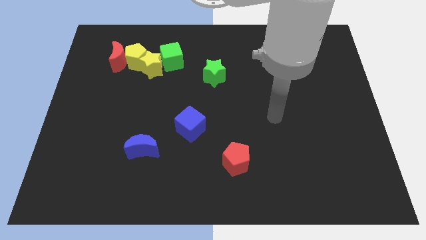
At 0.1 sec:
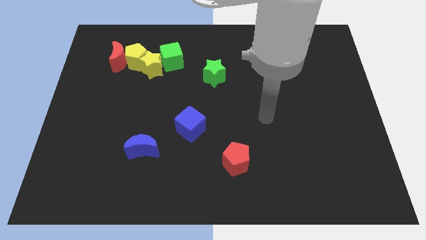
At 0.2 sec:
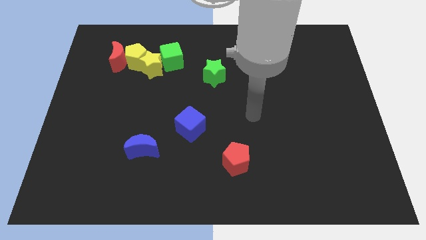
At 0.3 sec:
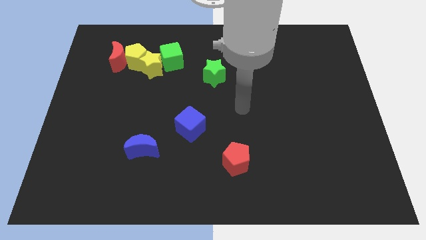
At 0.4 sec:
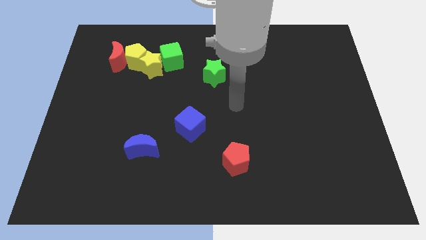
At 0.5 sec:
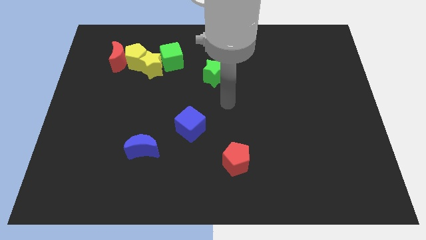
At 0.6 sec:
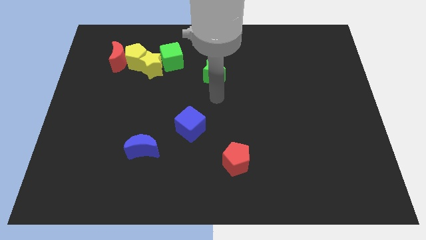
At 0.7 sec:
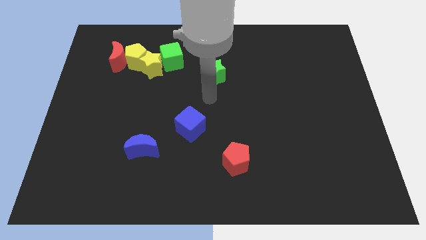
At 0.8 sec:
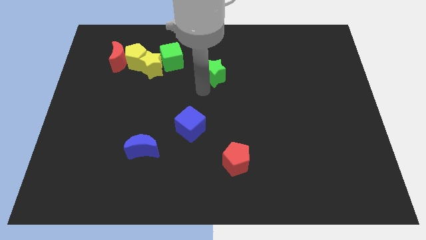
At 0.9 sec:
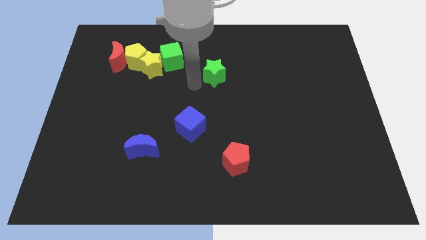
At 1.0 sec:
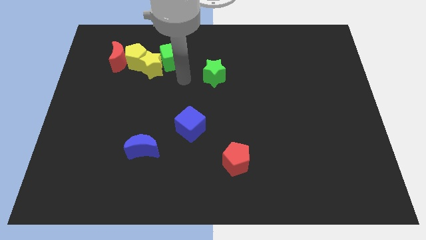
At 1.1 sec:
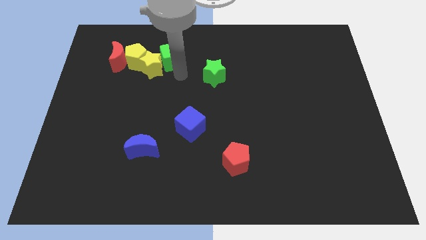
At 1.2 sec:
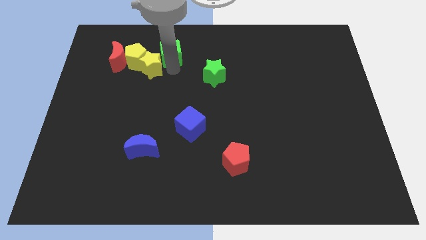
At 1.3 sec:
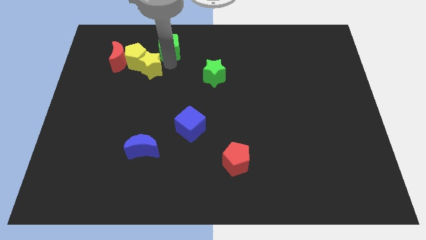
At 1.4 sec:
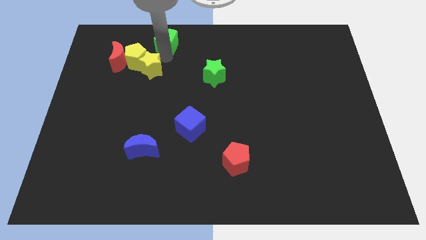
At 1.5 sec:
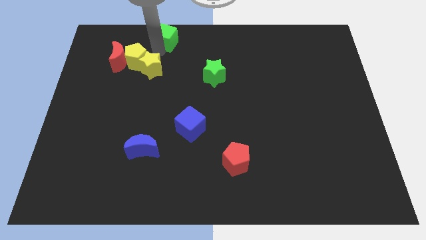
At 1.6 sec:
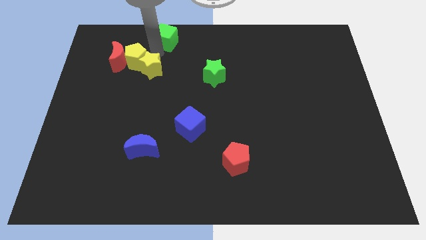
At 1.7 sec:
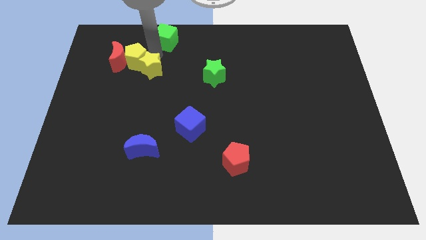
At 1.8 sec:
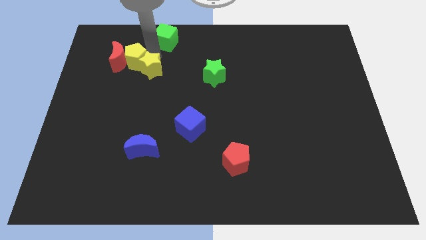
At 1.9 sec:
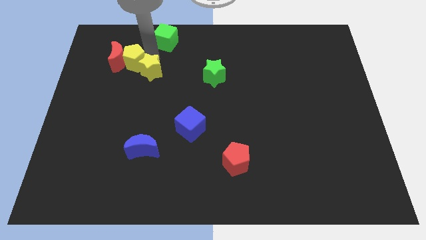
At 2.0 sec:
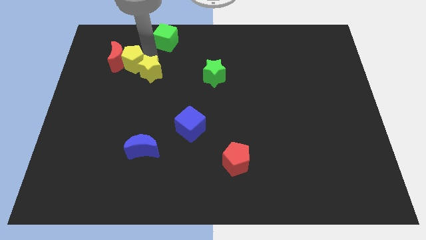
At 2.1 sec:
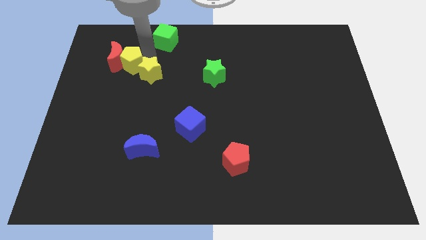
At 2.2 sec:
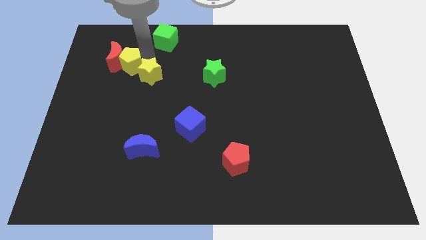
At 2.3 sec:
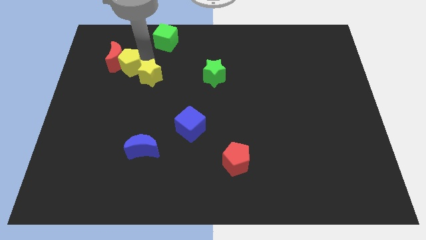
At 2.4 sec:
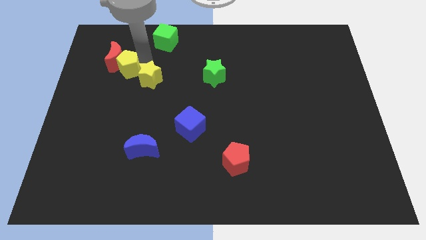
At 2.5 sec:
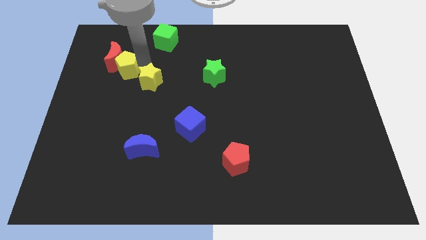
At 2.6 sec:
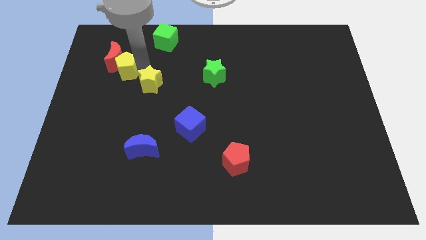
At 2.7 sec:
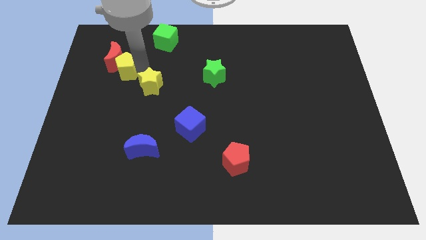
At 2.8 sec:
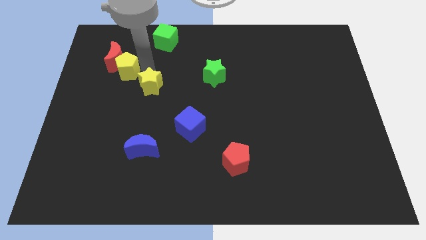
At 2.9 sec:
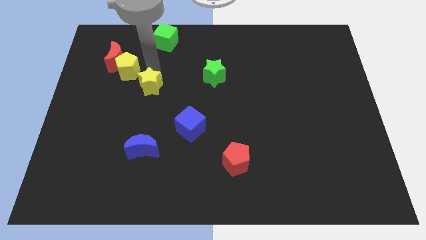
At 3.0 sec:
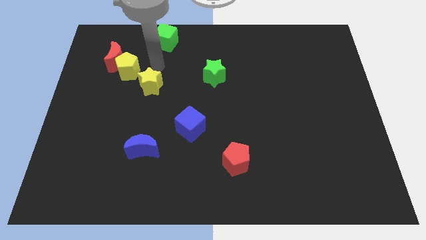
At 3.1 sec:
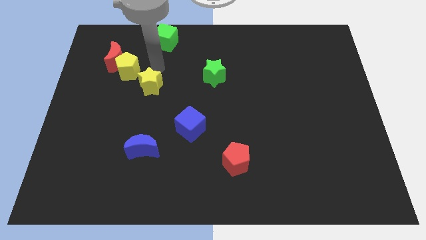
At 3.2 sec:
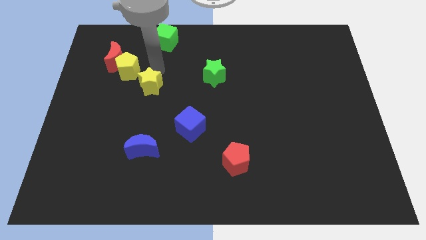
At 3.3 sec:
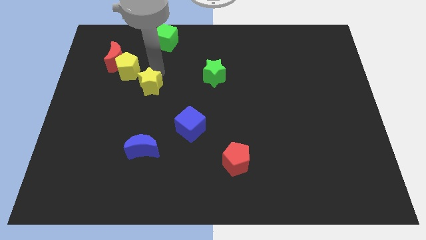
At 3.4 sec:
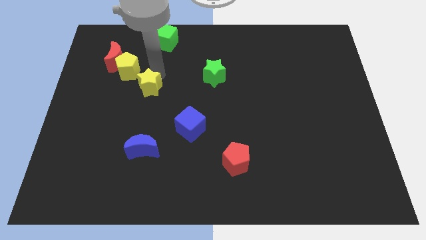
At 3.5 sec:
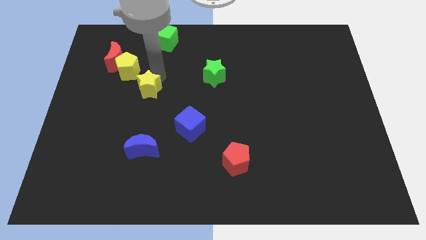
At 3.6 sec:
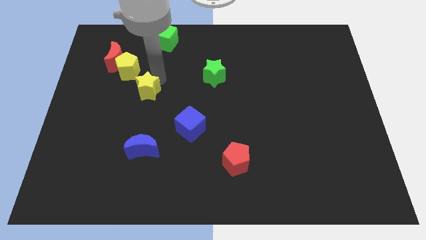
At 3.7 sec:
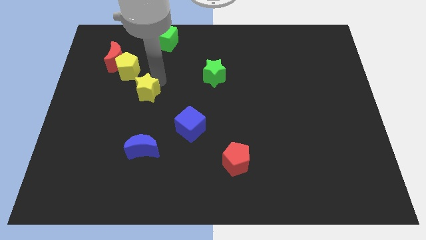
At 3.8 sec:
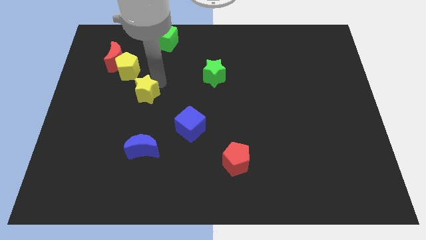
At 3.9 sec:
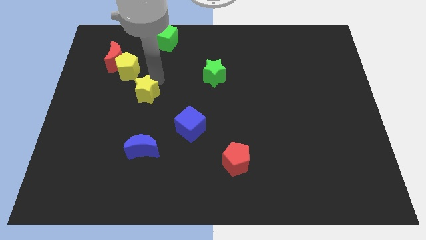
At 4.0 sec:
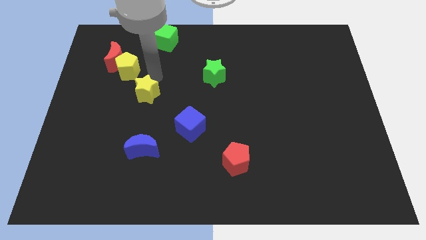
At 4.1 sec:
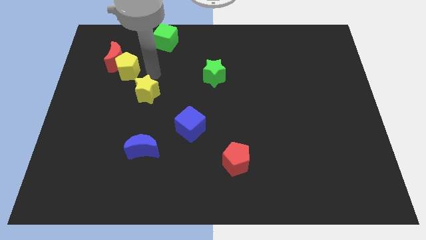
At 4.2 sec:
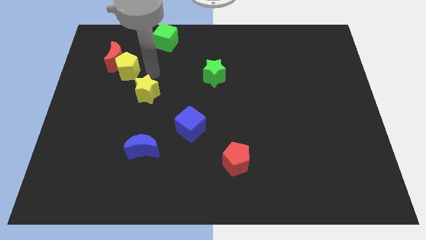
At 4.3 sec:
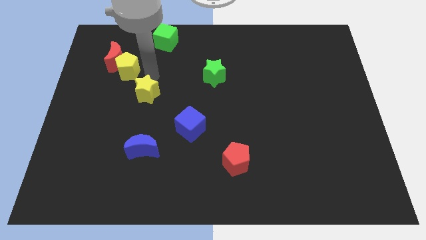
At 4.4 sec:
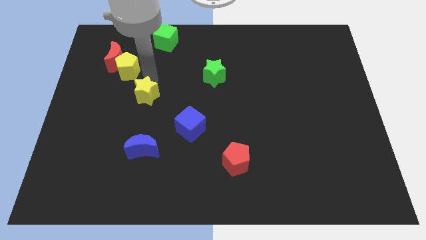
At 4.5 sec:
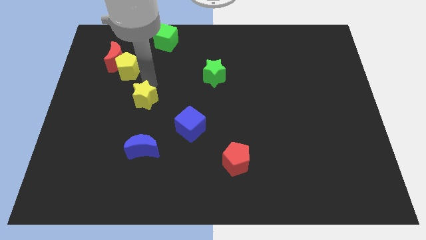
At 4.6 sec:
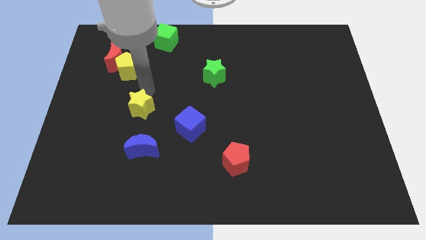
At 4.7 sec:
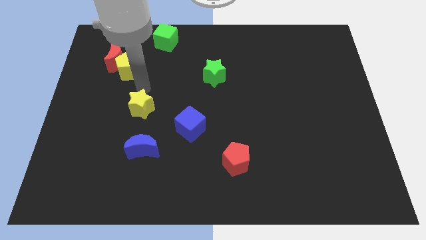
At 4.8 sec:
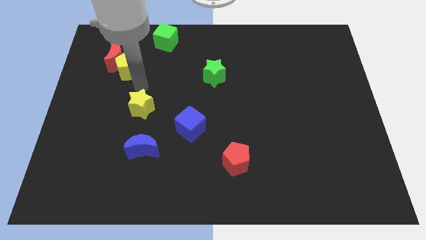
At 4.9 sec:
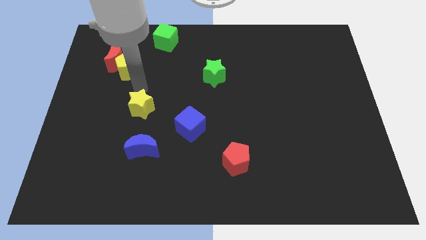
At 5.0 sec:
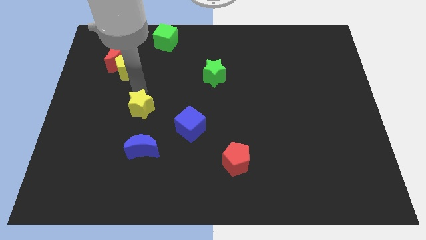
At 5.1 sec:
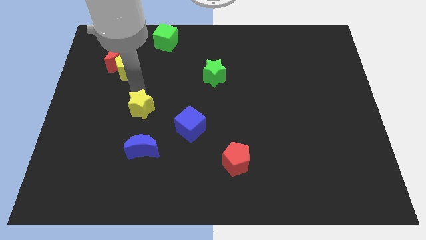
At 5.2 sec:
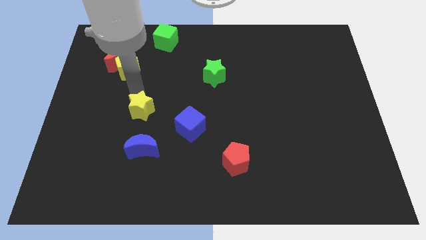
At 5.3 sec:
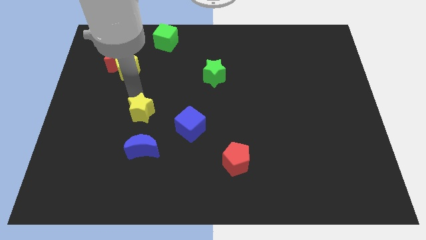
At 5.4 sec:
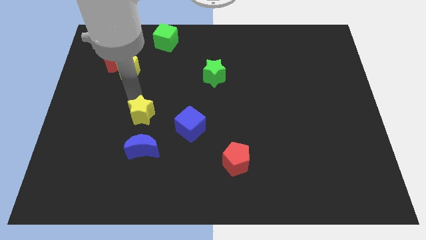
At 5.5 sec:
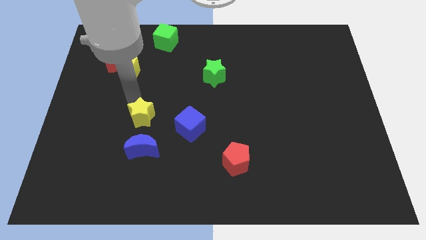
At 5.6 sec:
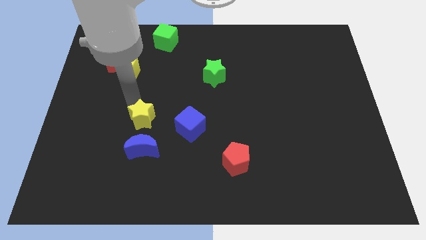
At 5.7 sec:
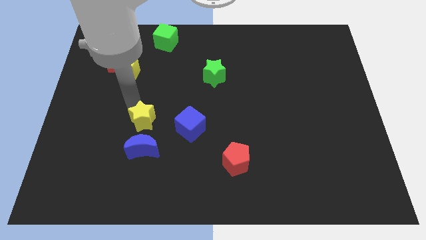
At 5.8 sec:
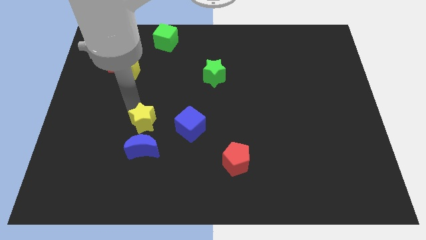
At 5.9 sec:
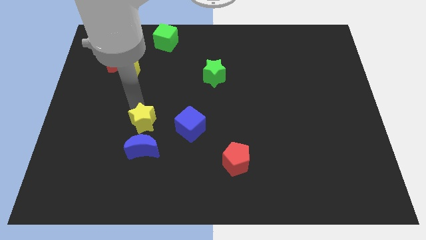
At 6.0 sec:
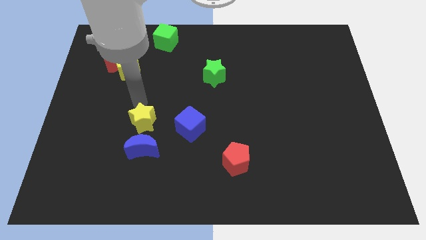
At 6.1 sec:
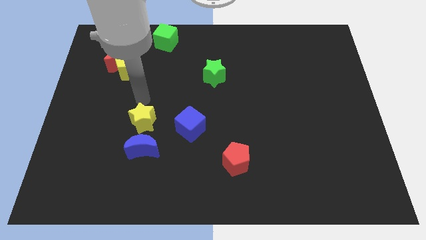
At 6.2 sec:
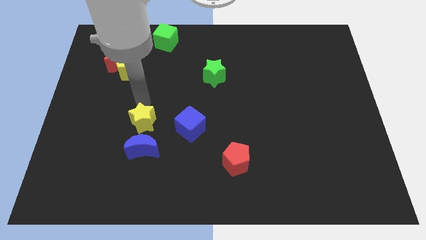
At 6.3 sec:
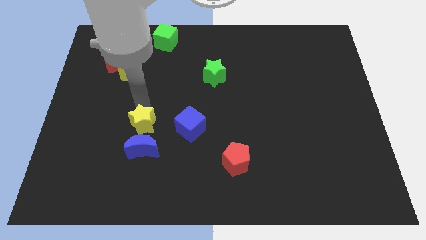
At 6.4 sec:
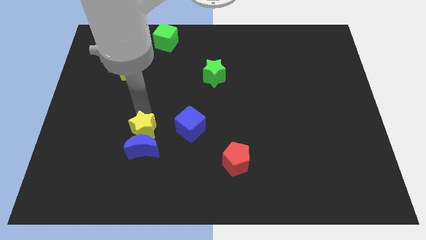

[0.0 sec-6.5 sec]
slide the yellow star next to the blue moon

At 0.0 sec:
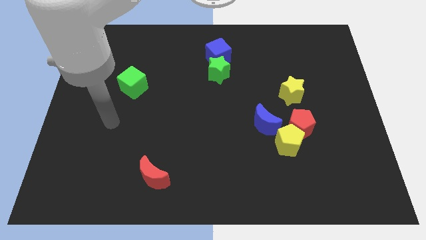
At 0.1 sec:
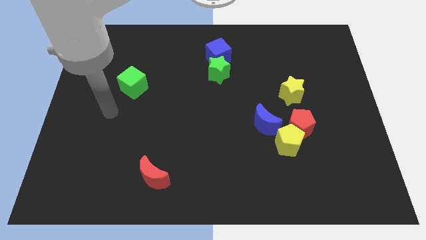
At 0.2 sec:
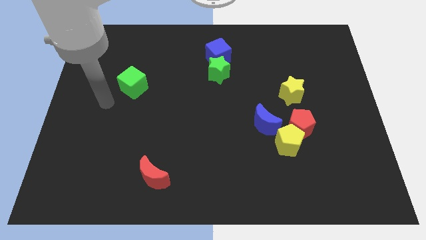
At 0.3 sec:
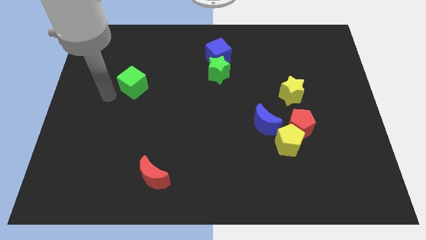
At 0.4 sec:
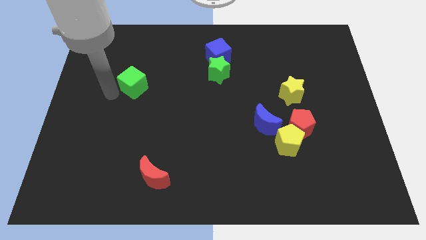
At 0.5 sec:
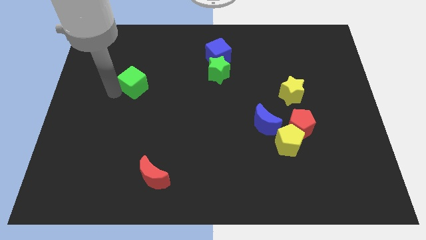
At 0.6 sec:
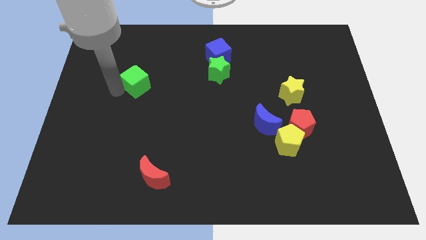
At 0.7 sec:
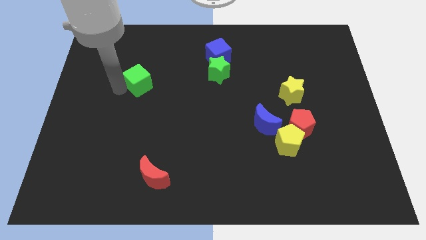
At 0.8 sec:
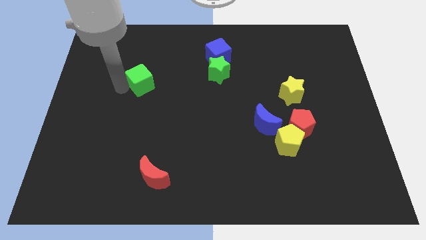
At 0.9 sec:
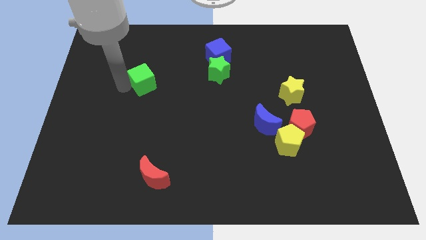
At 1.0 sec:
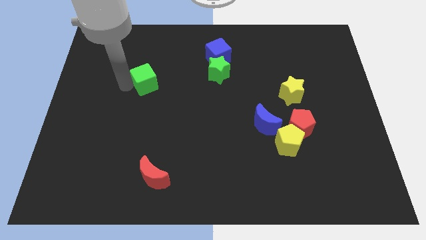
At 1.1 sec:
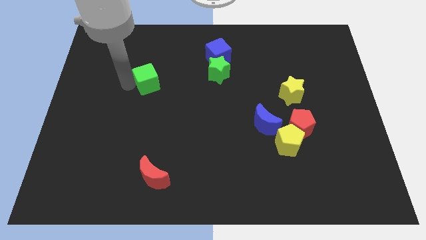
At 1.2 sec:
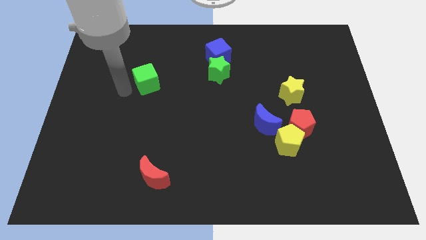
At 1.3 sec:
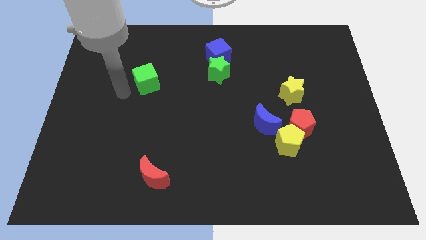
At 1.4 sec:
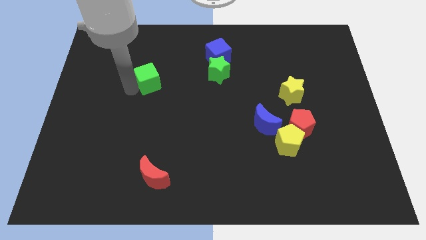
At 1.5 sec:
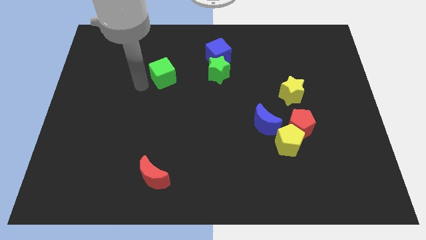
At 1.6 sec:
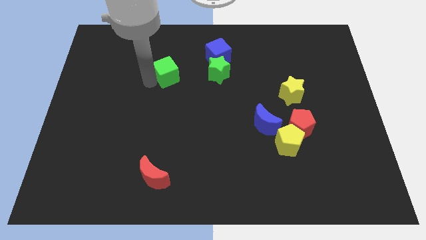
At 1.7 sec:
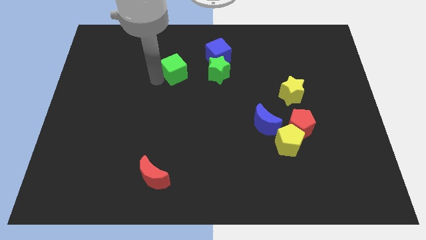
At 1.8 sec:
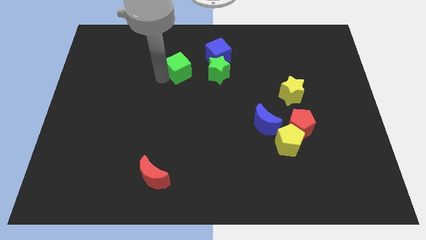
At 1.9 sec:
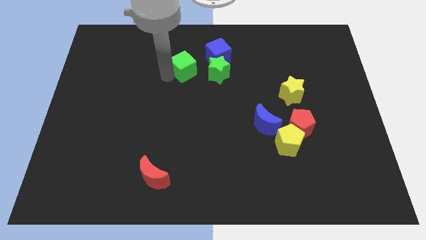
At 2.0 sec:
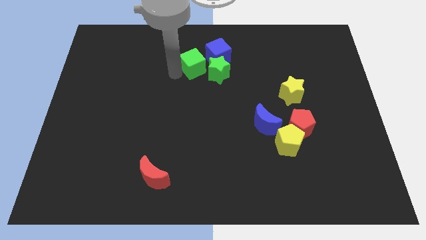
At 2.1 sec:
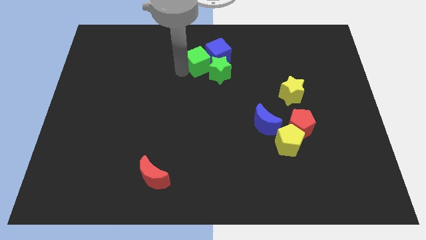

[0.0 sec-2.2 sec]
push the green cube next to the blue cube
